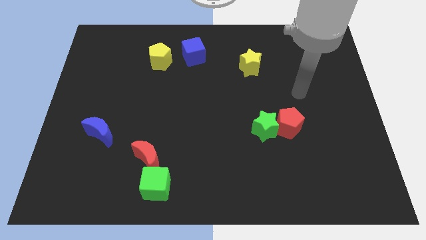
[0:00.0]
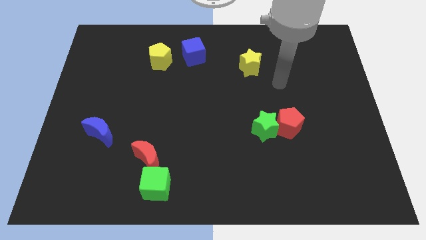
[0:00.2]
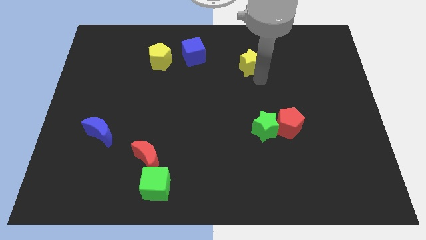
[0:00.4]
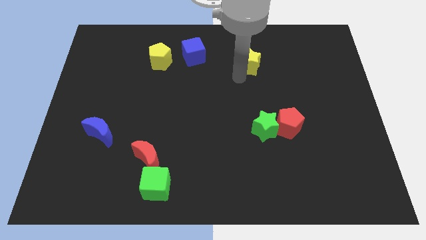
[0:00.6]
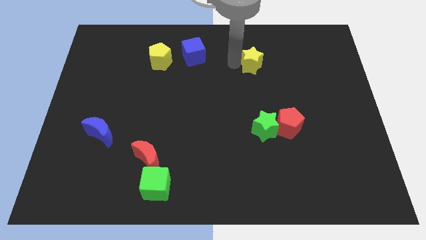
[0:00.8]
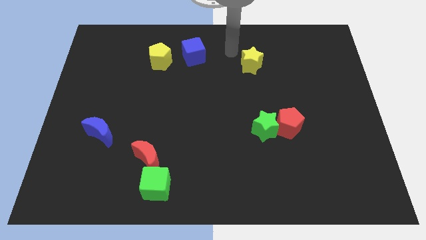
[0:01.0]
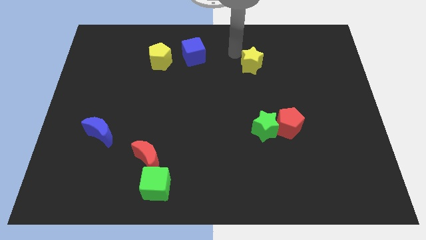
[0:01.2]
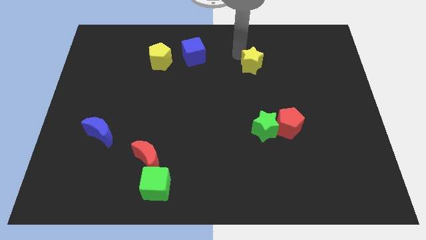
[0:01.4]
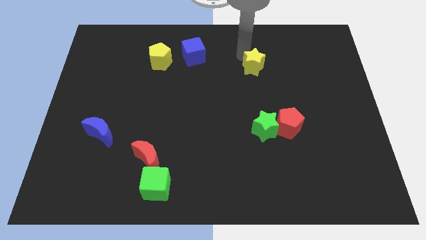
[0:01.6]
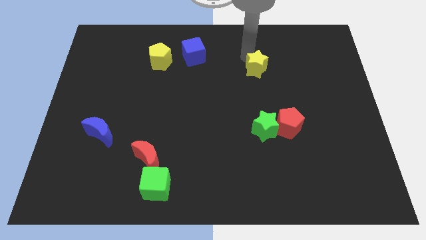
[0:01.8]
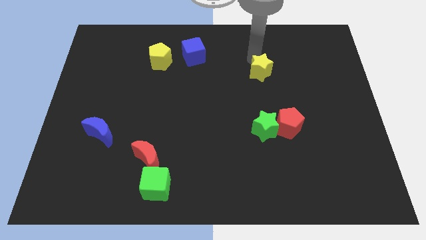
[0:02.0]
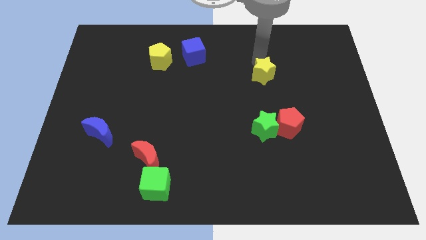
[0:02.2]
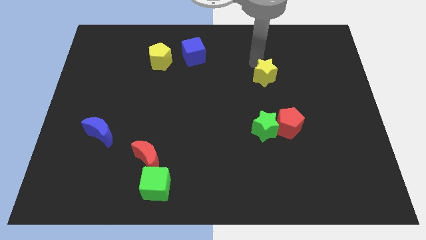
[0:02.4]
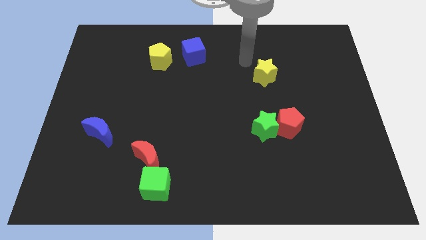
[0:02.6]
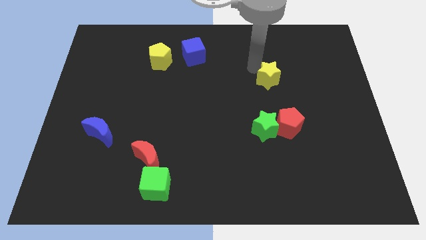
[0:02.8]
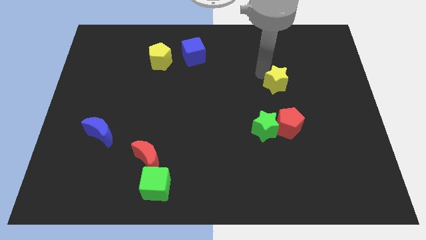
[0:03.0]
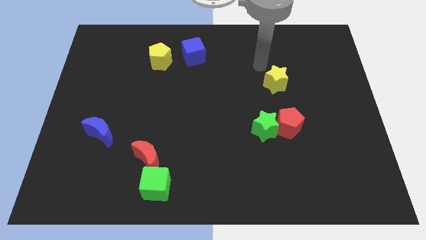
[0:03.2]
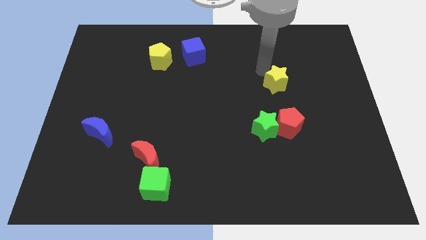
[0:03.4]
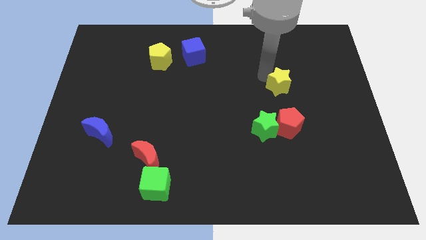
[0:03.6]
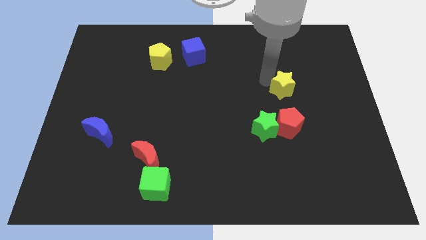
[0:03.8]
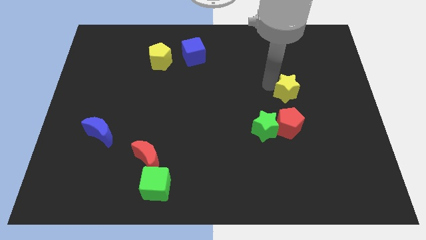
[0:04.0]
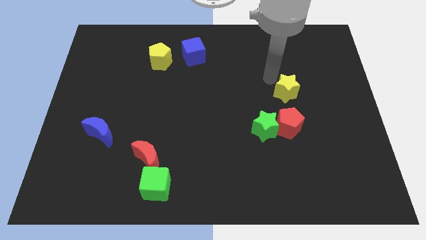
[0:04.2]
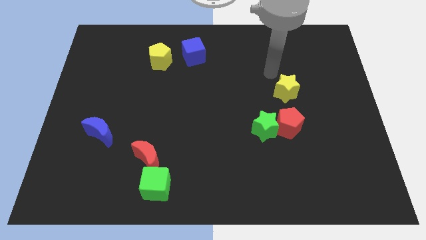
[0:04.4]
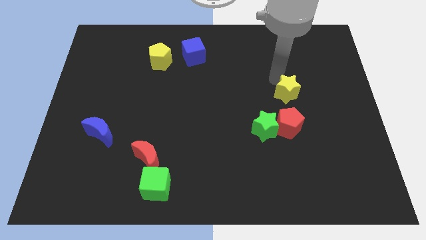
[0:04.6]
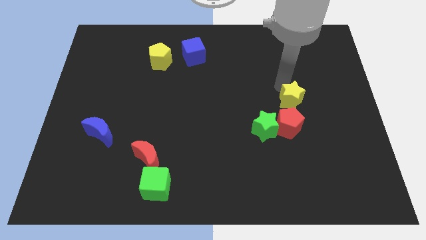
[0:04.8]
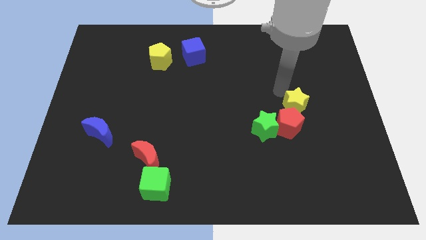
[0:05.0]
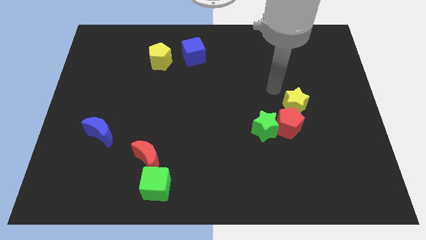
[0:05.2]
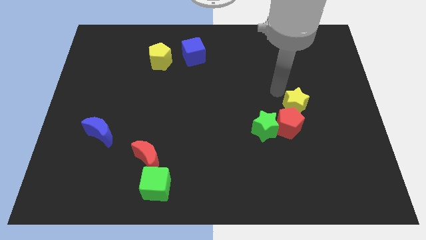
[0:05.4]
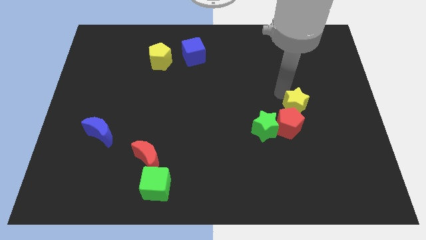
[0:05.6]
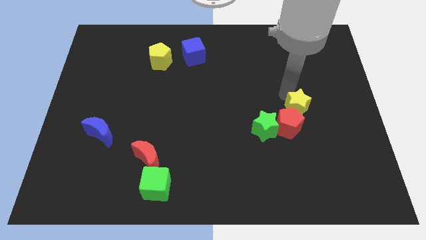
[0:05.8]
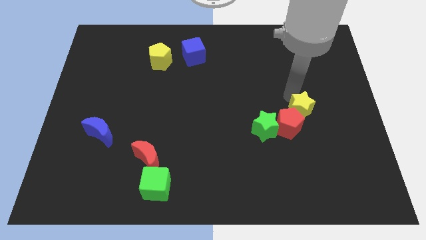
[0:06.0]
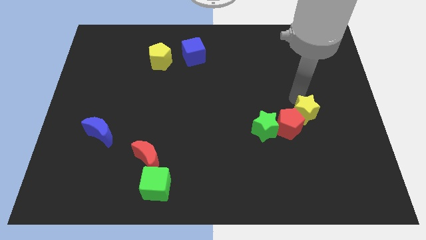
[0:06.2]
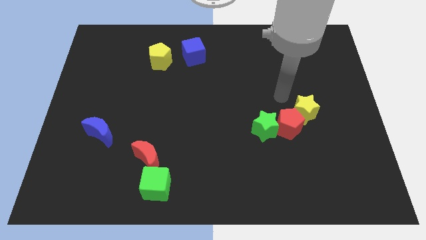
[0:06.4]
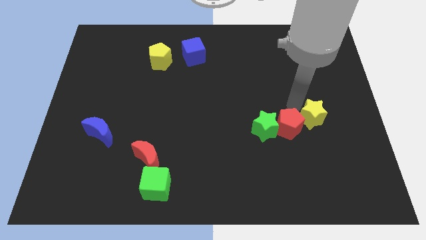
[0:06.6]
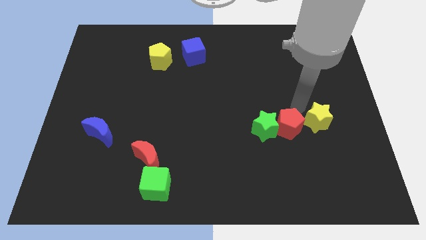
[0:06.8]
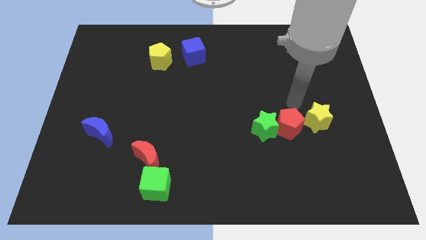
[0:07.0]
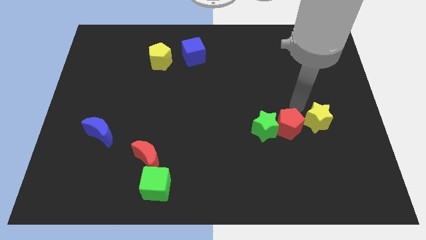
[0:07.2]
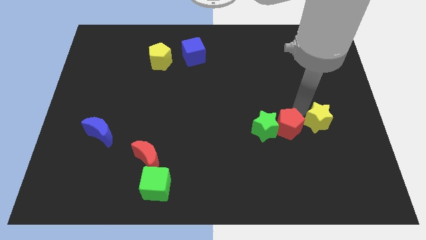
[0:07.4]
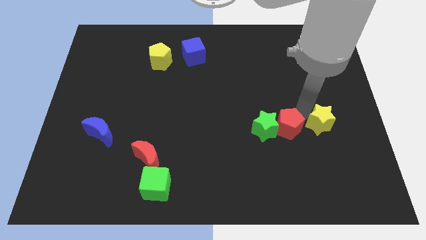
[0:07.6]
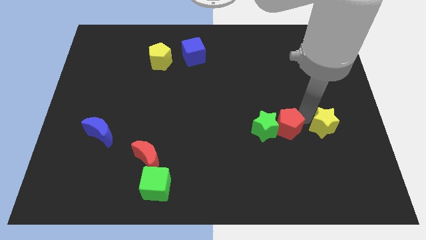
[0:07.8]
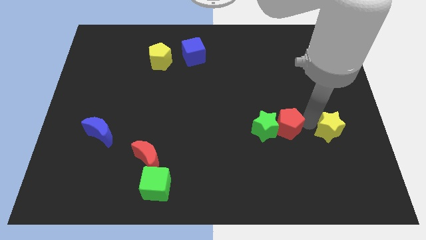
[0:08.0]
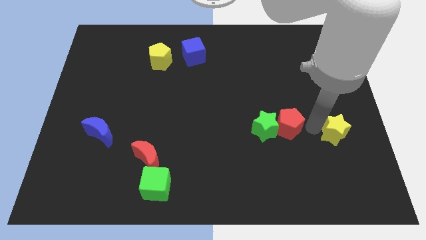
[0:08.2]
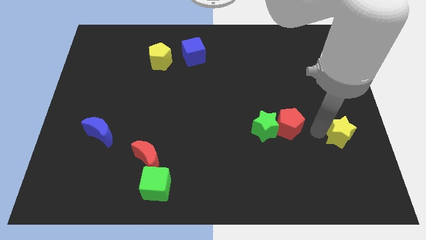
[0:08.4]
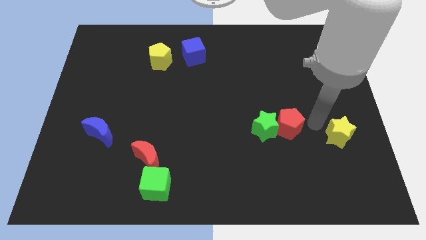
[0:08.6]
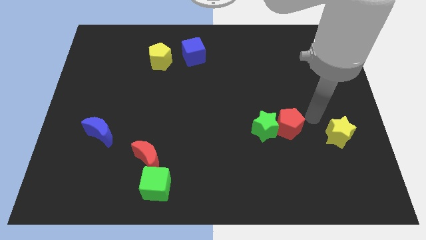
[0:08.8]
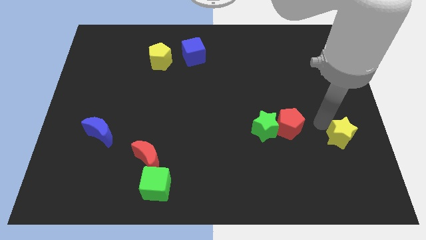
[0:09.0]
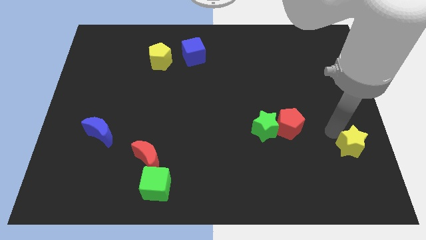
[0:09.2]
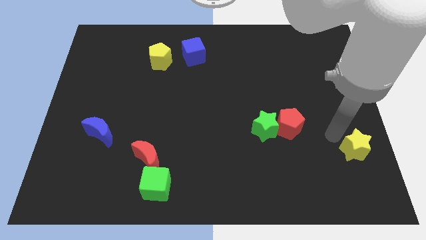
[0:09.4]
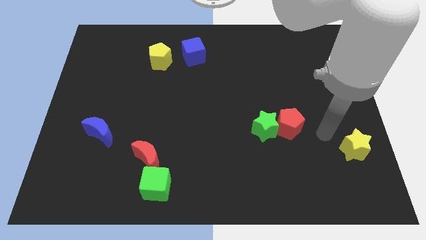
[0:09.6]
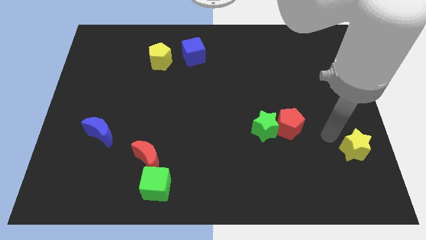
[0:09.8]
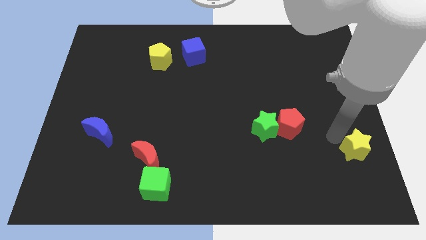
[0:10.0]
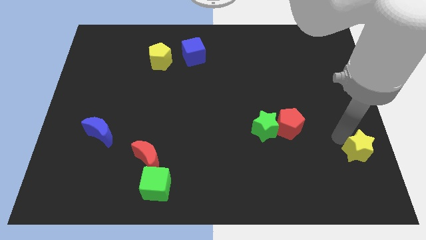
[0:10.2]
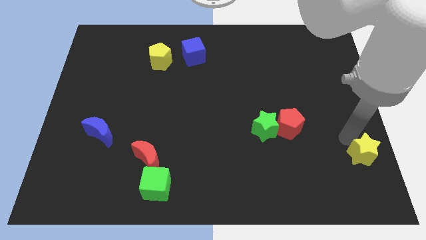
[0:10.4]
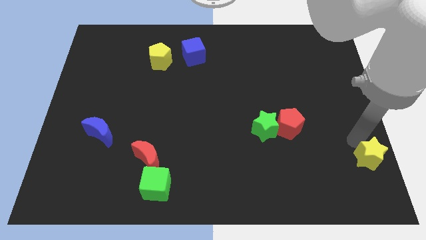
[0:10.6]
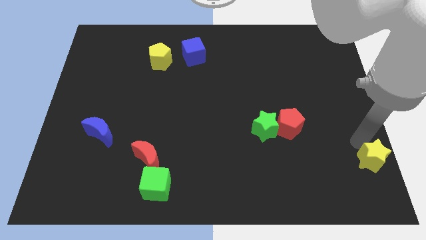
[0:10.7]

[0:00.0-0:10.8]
slide the yellow star to the bottom right corner

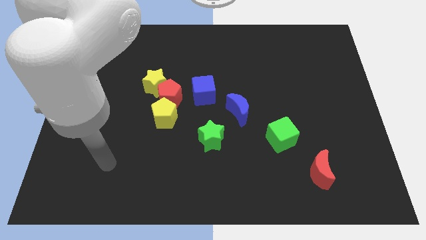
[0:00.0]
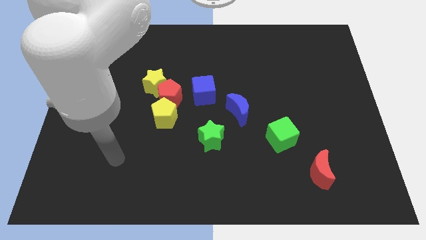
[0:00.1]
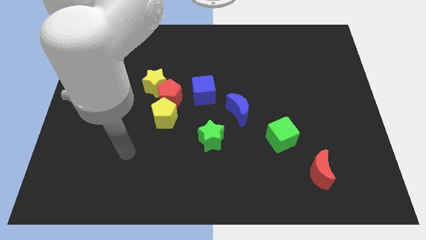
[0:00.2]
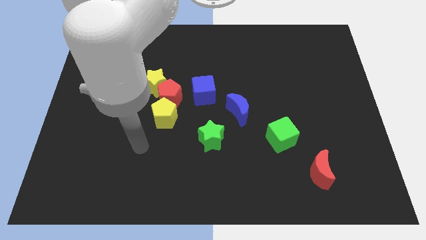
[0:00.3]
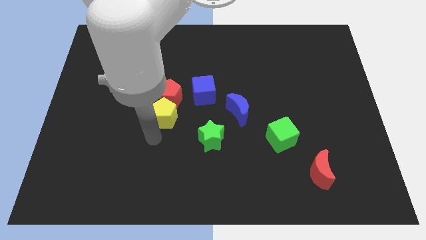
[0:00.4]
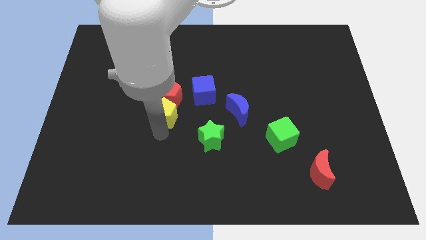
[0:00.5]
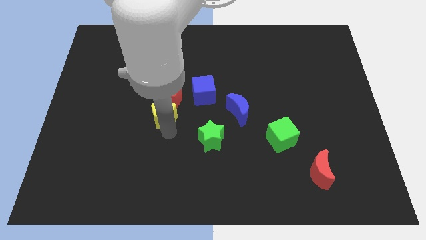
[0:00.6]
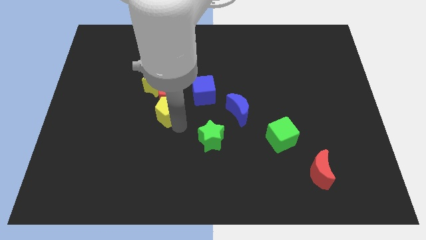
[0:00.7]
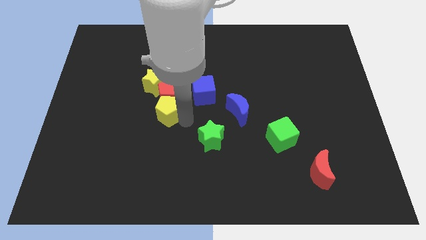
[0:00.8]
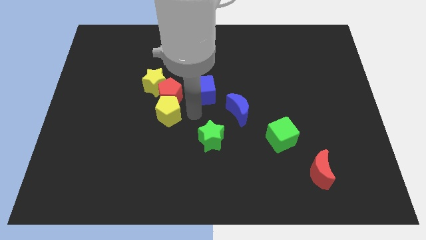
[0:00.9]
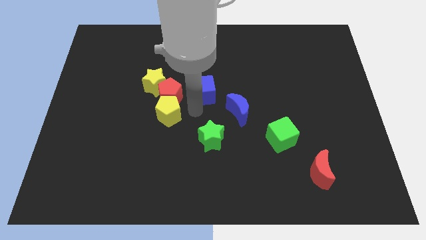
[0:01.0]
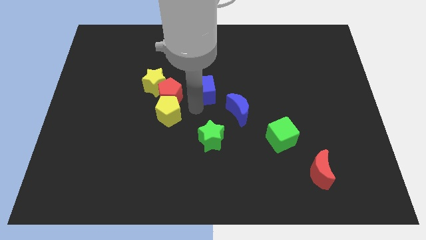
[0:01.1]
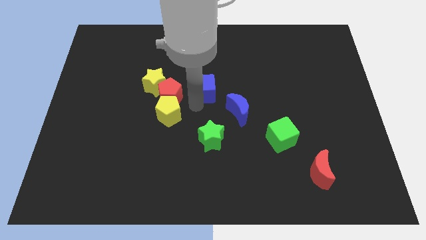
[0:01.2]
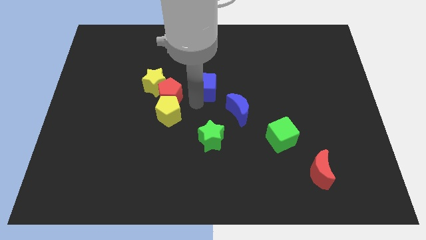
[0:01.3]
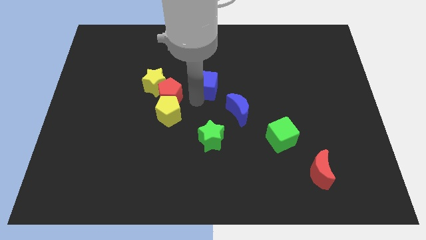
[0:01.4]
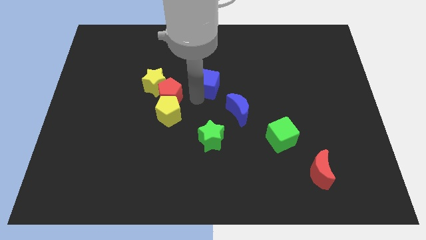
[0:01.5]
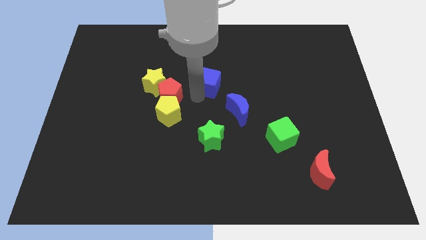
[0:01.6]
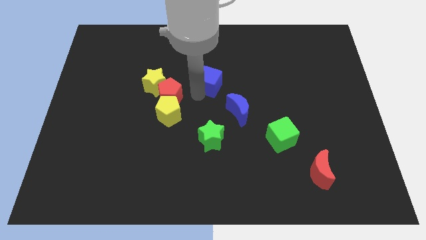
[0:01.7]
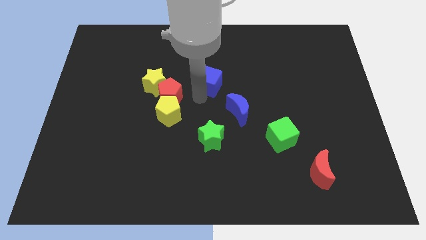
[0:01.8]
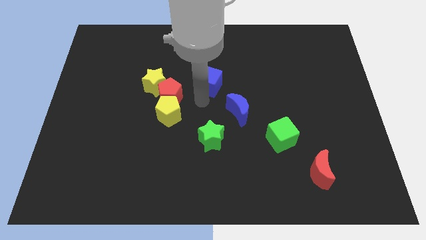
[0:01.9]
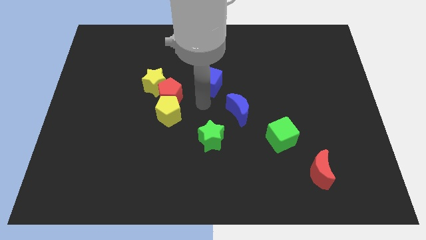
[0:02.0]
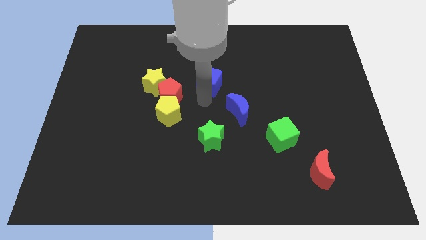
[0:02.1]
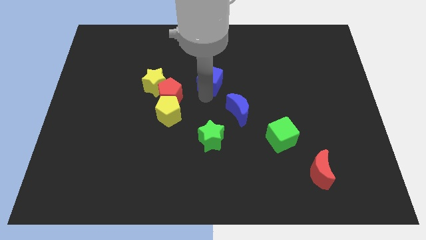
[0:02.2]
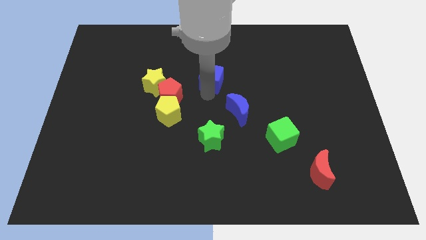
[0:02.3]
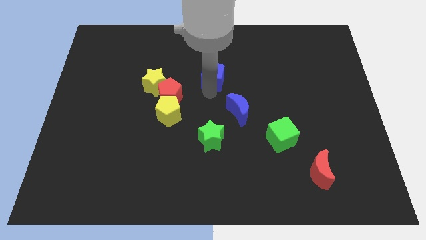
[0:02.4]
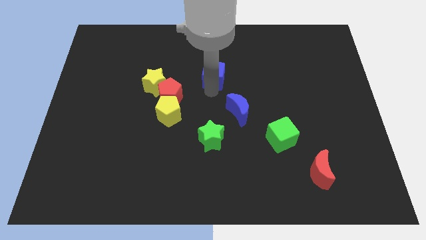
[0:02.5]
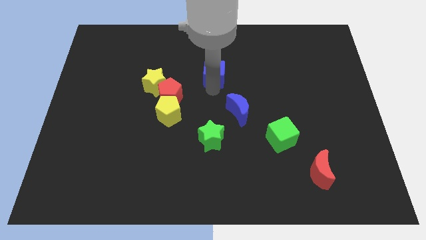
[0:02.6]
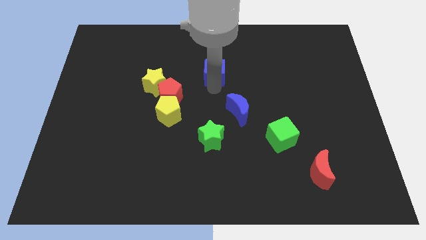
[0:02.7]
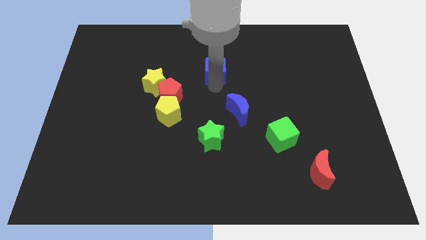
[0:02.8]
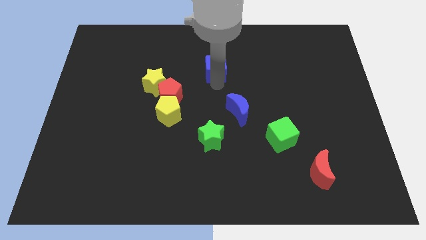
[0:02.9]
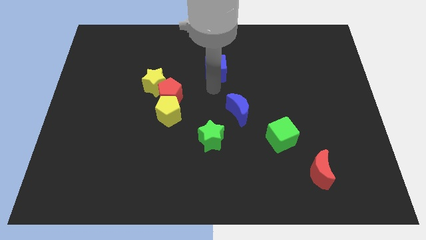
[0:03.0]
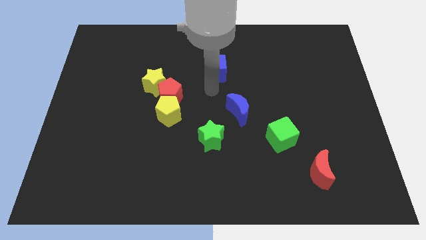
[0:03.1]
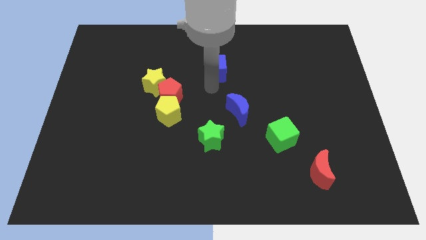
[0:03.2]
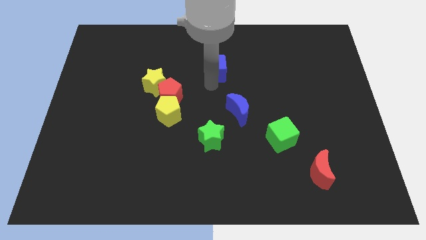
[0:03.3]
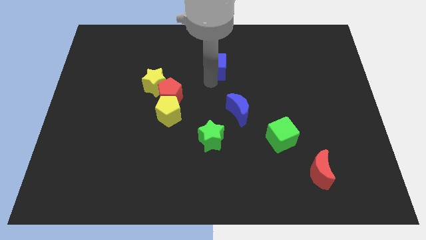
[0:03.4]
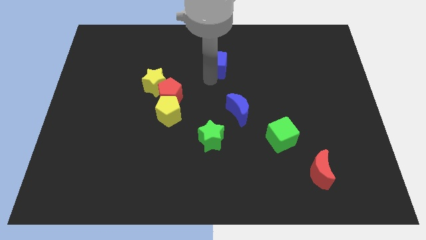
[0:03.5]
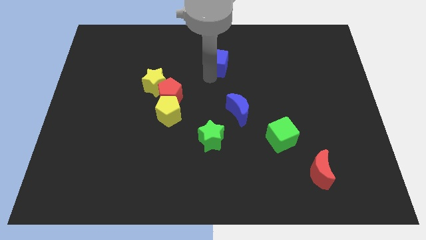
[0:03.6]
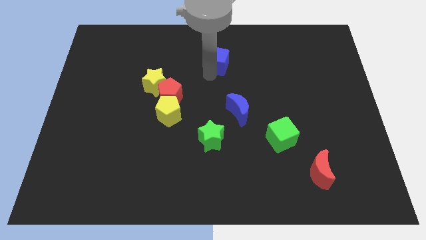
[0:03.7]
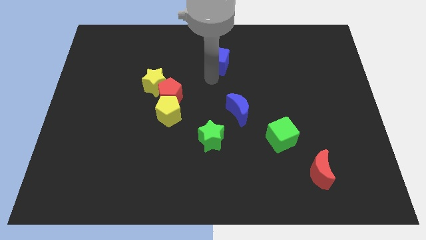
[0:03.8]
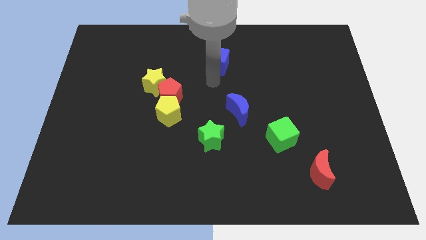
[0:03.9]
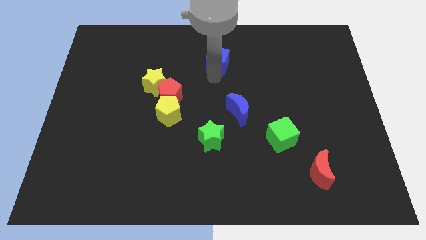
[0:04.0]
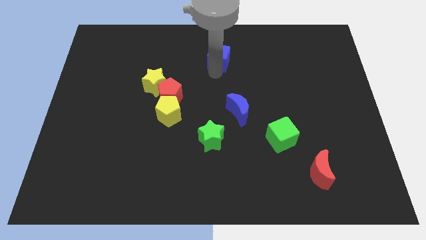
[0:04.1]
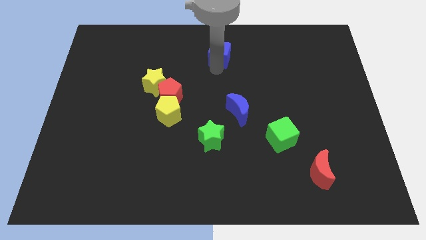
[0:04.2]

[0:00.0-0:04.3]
push the blue cube to the towards your base
